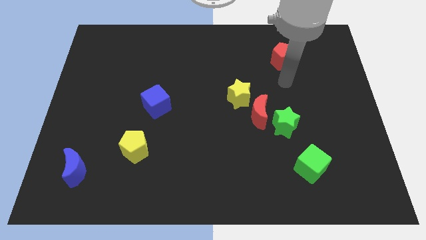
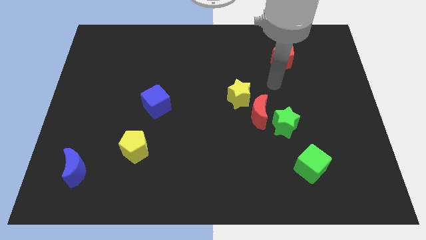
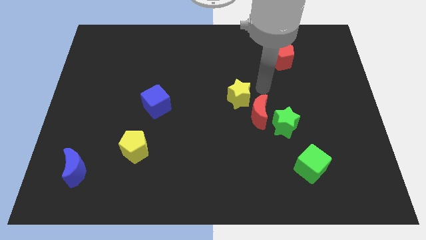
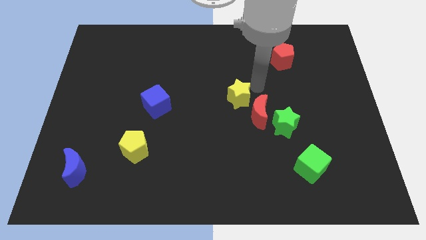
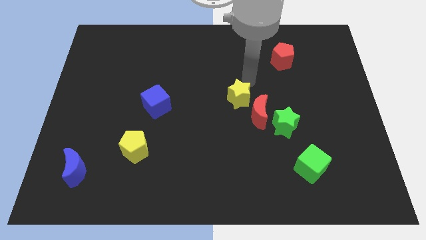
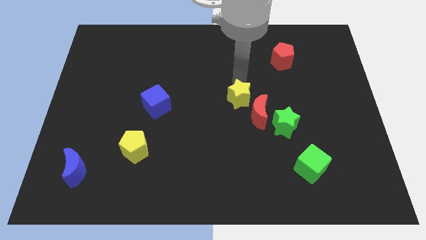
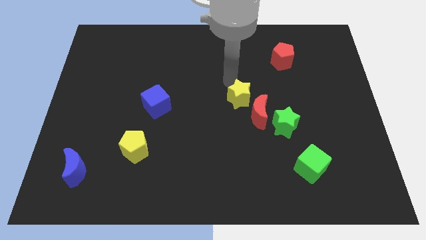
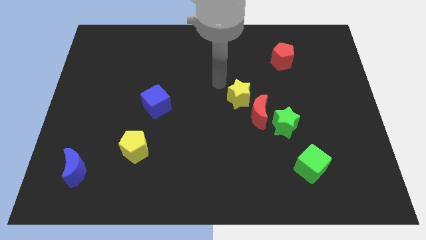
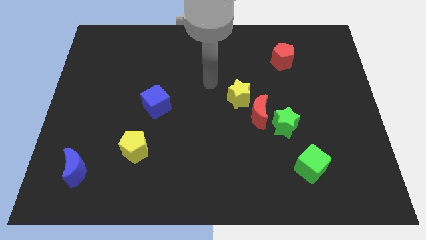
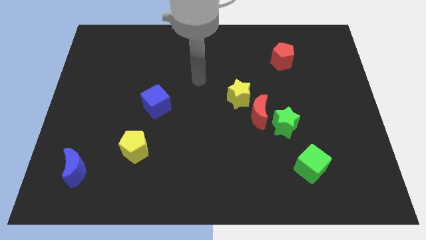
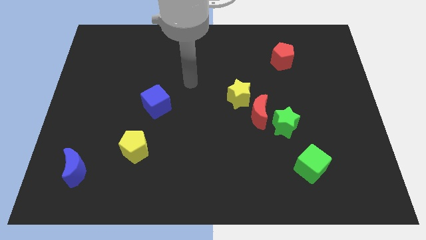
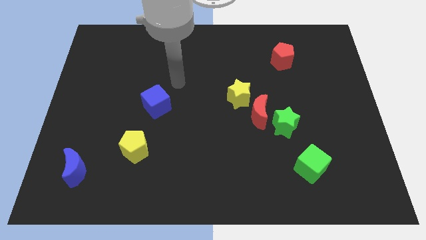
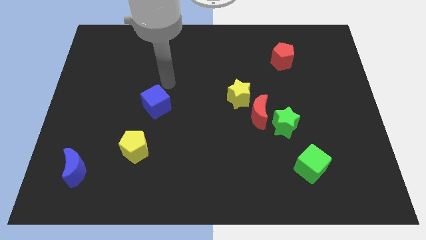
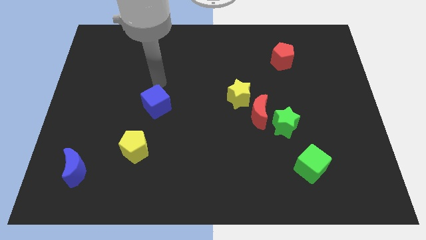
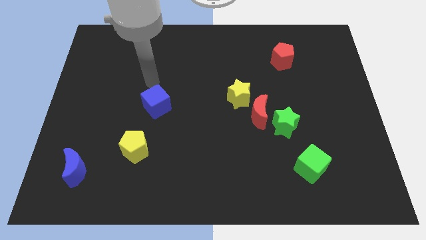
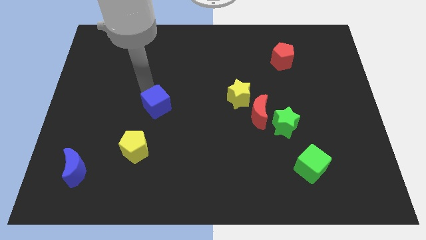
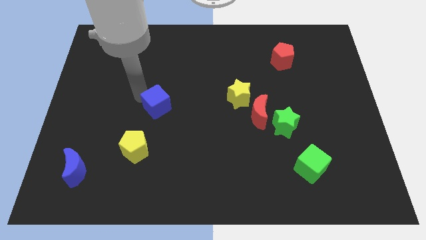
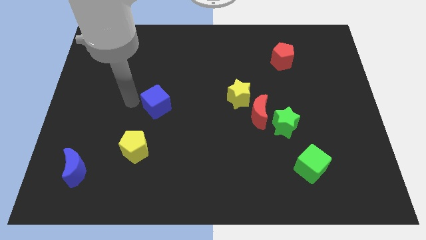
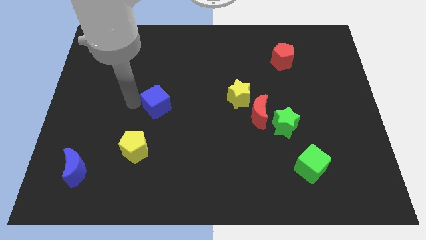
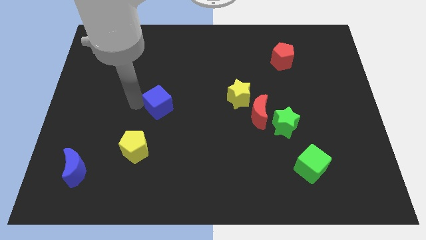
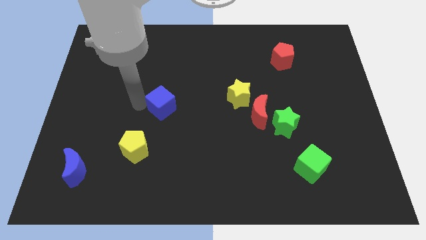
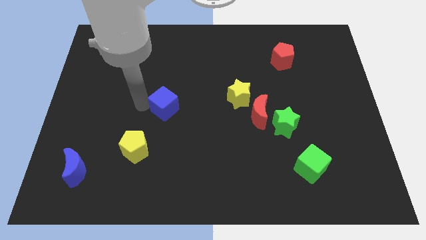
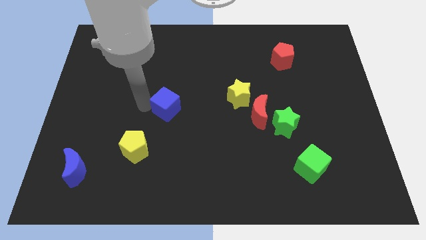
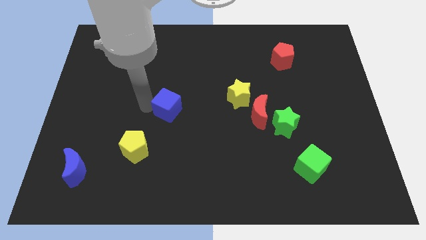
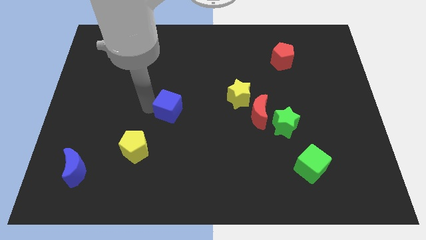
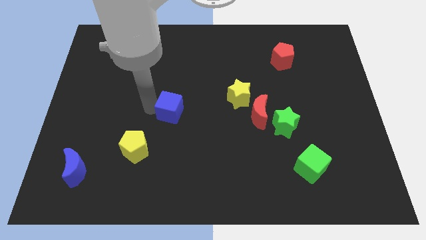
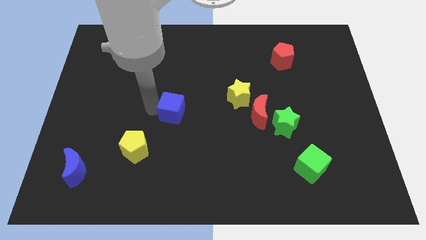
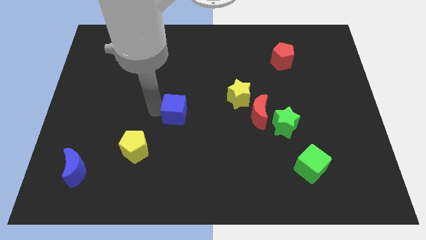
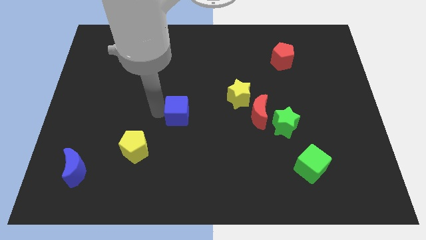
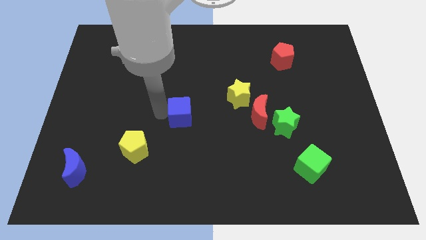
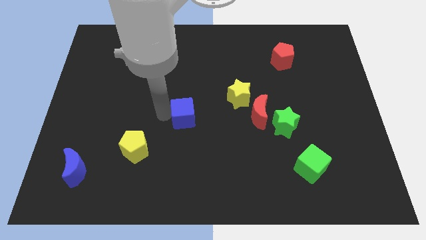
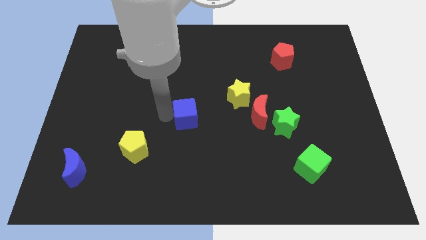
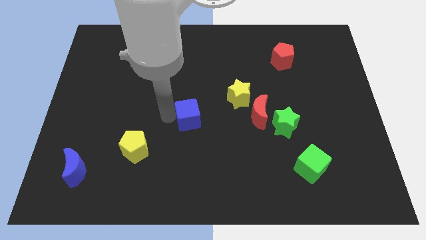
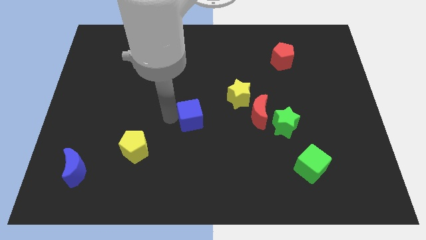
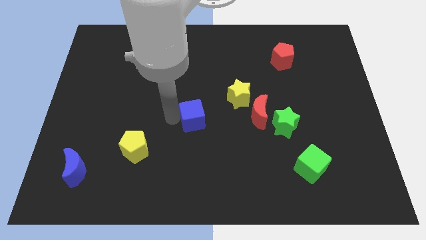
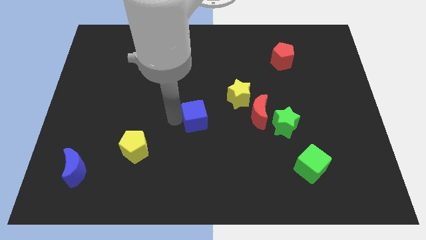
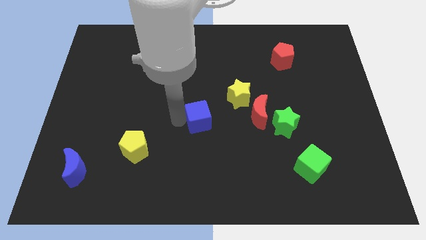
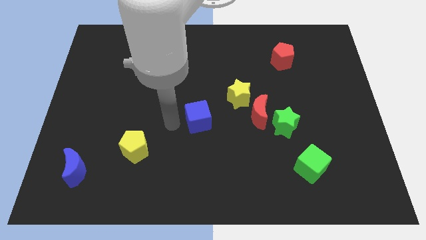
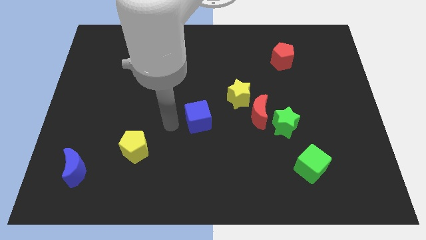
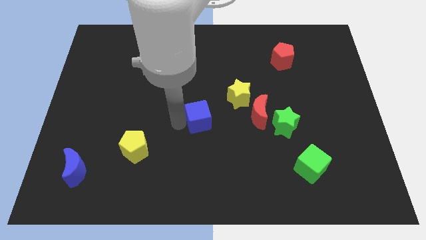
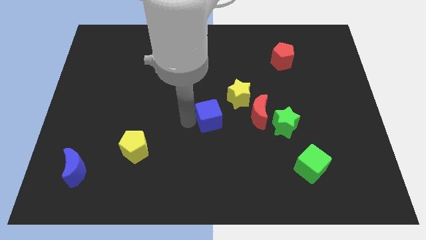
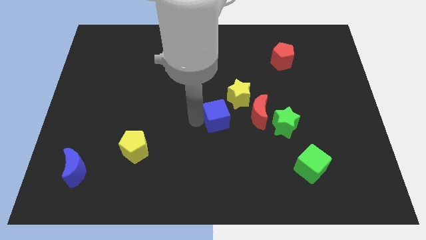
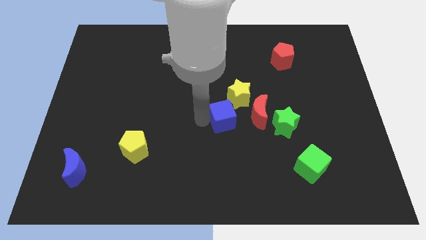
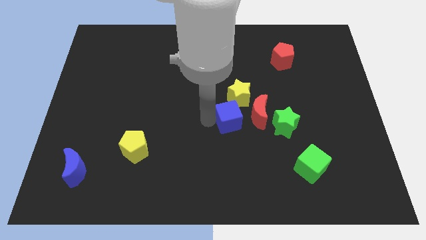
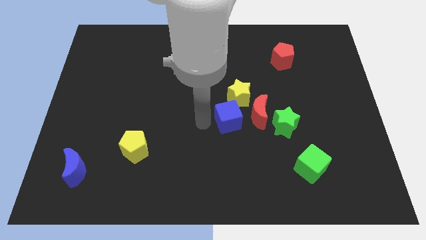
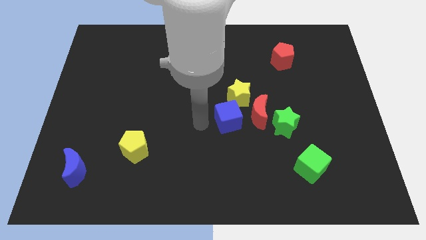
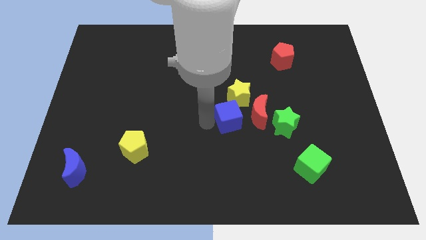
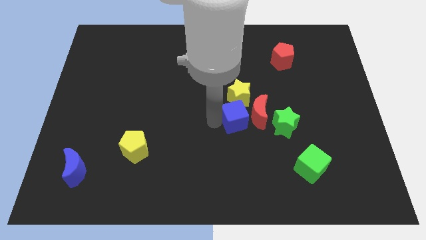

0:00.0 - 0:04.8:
put the blue cube close to the red moon

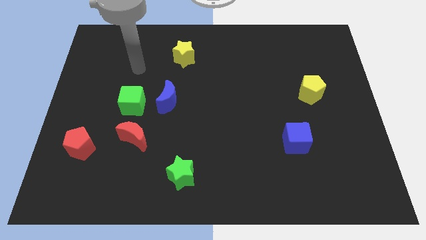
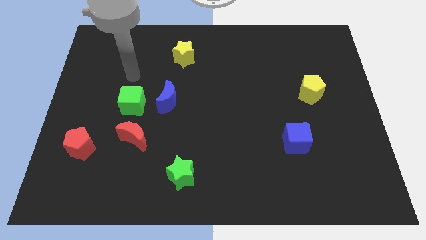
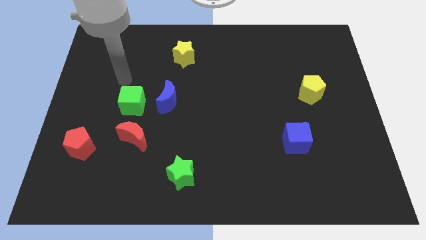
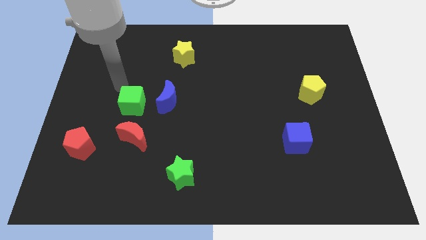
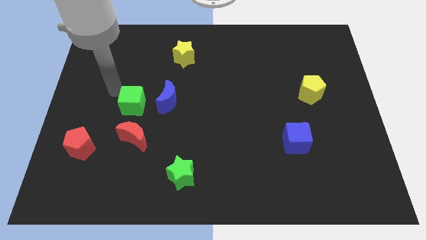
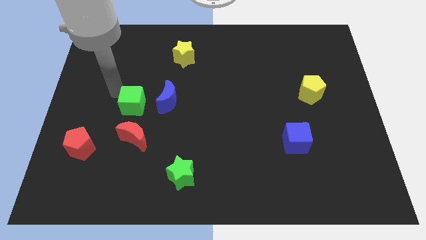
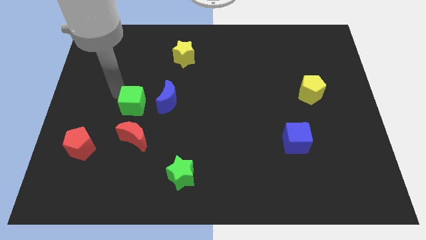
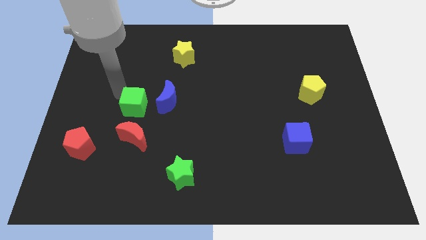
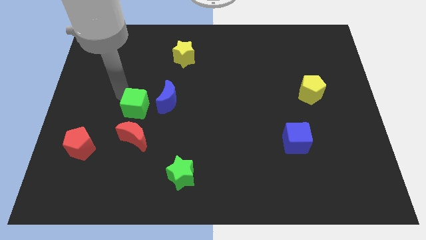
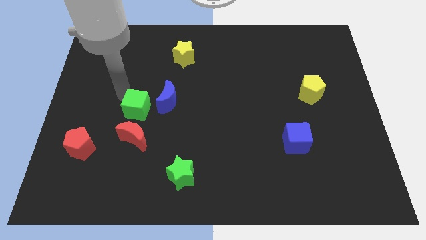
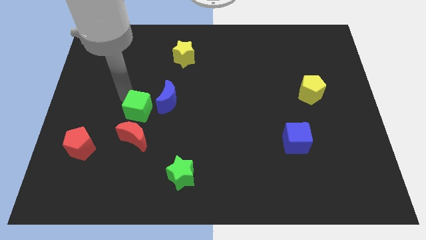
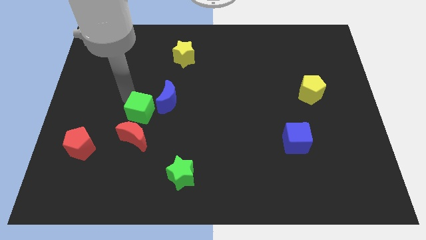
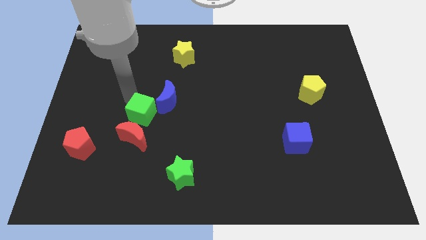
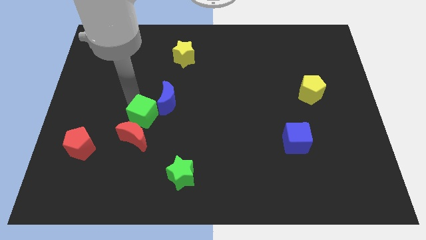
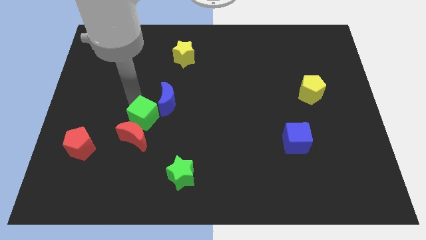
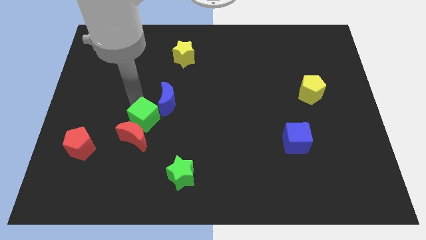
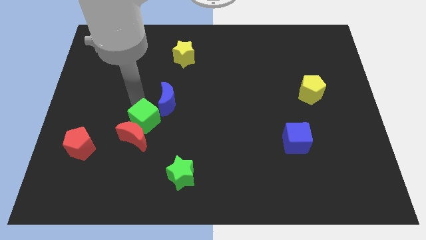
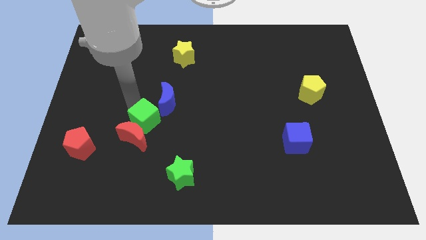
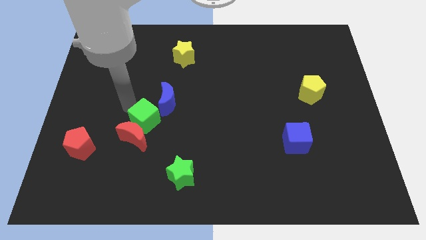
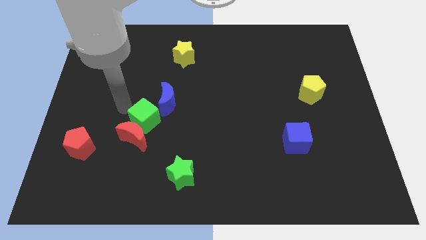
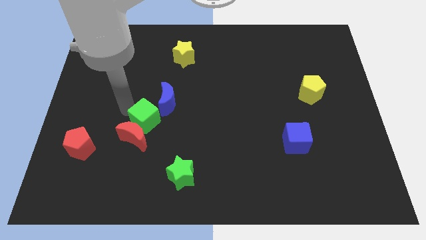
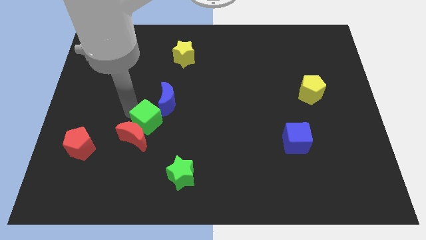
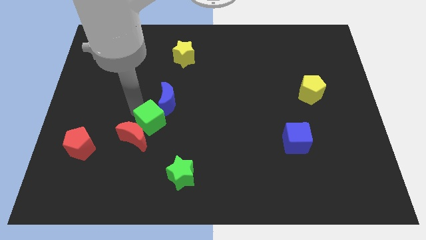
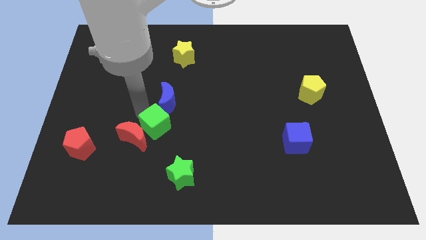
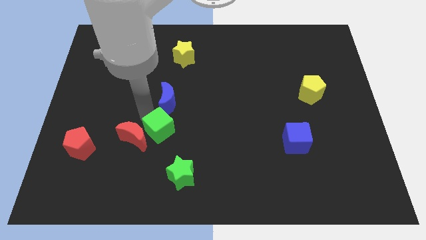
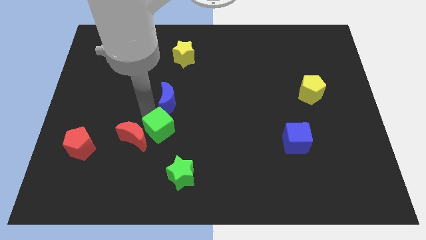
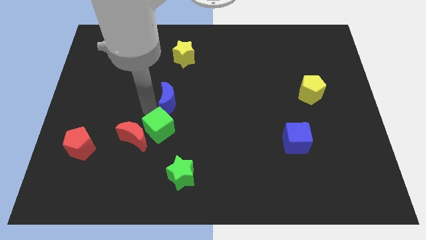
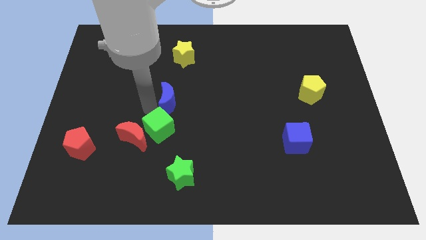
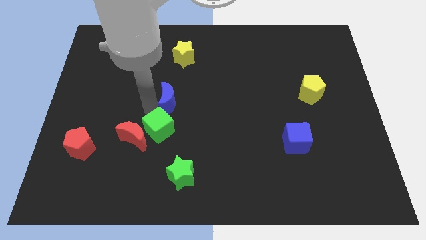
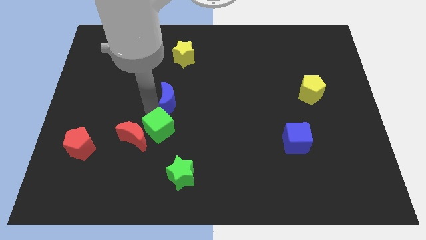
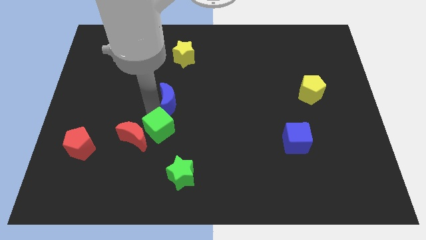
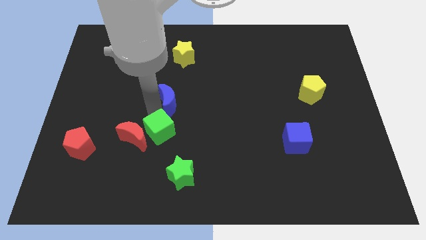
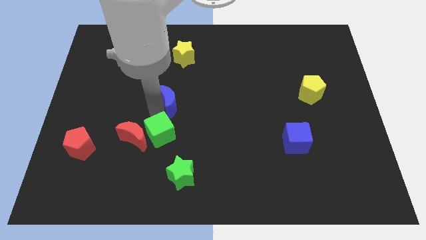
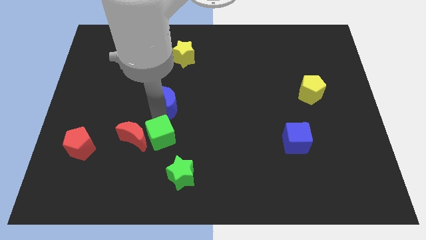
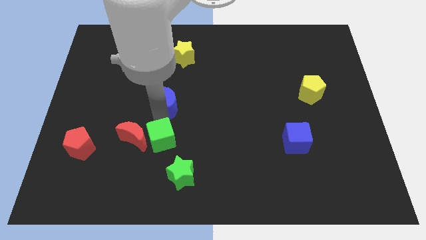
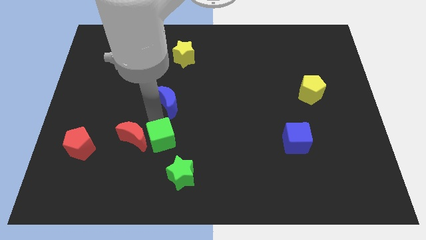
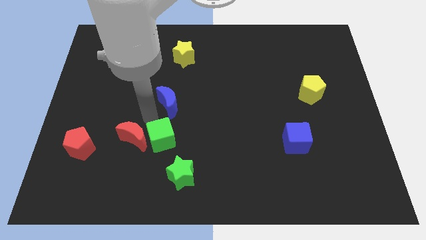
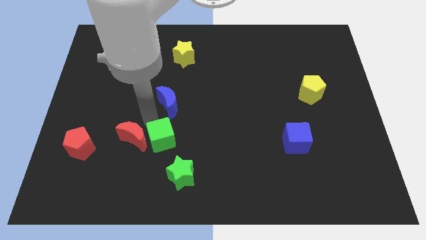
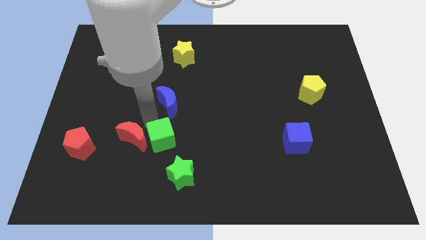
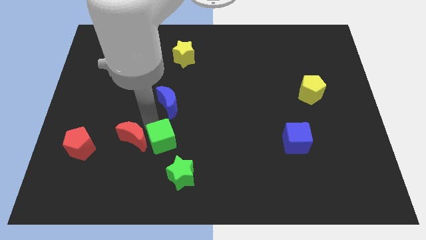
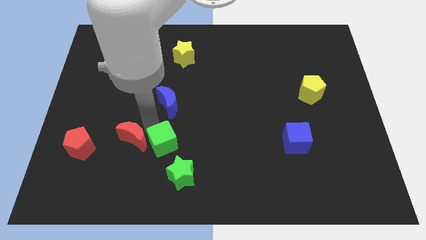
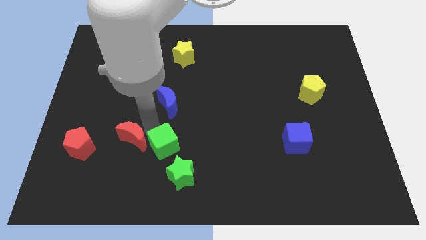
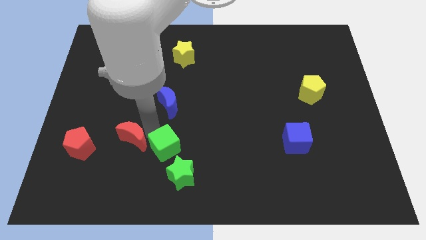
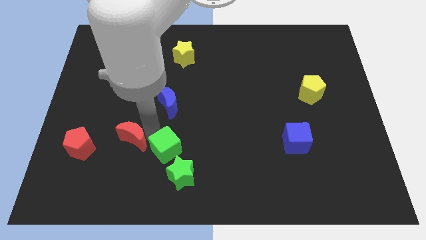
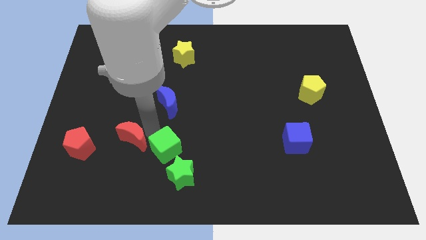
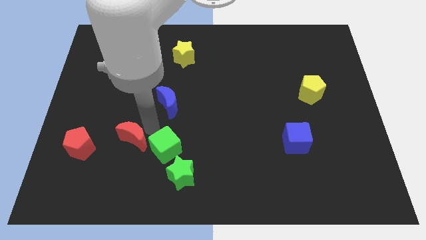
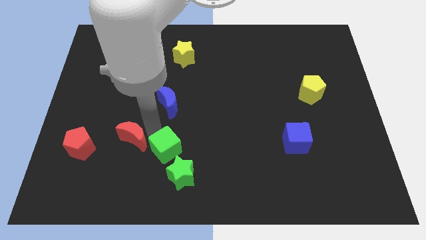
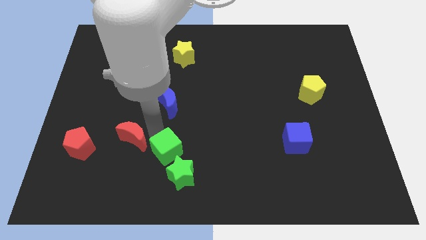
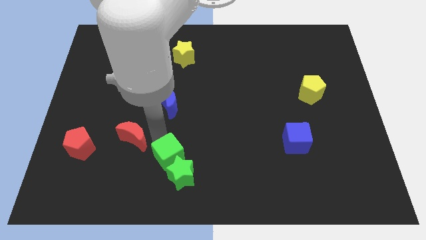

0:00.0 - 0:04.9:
push the green cube to the green star
